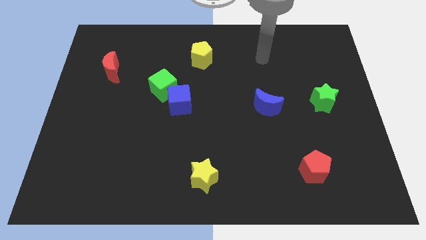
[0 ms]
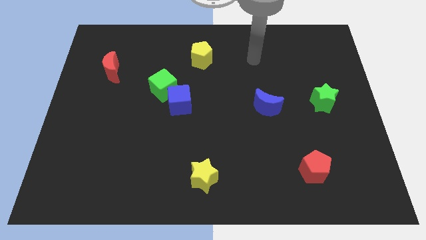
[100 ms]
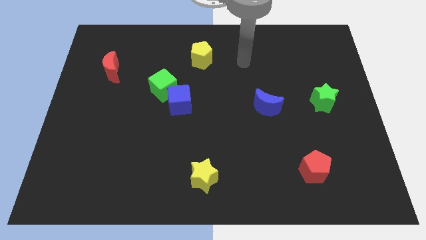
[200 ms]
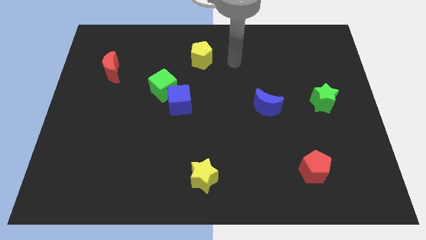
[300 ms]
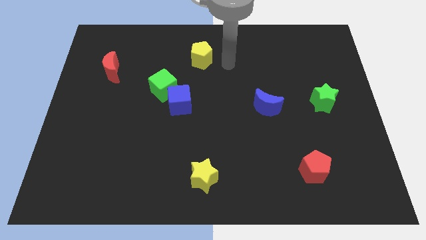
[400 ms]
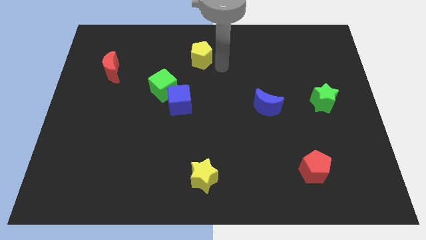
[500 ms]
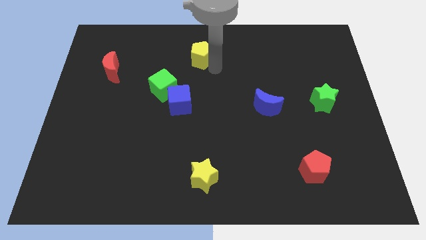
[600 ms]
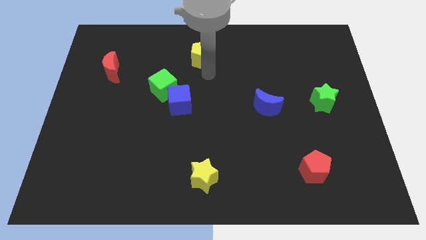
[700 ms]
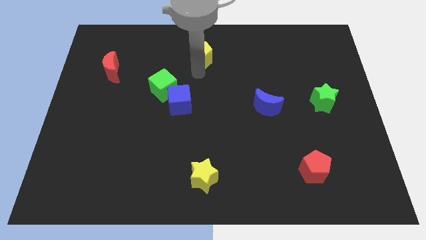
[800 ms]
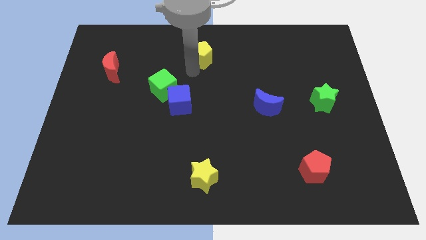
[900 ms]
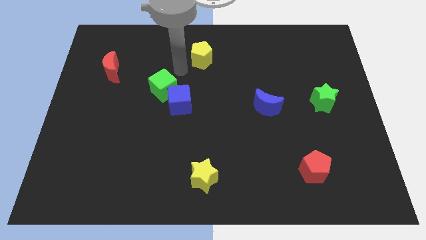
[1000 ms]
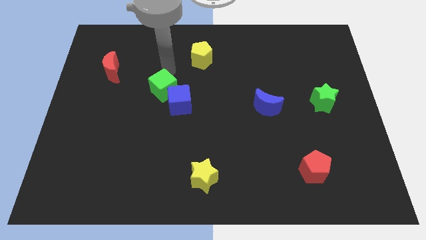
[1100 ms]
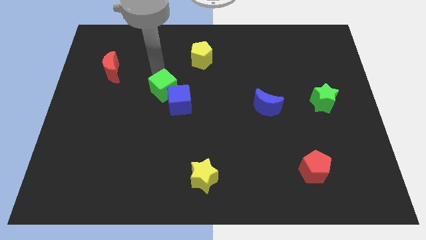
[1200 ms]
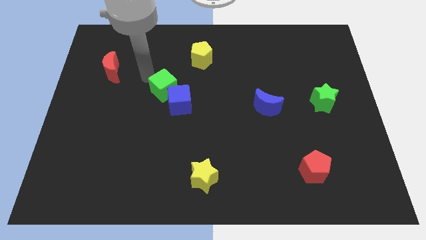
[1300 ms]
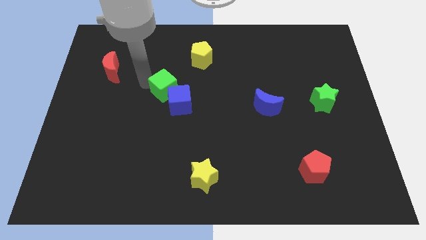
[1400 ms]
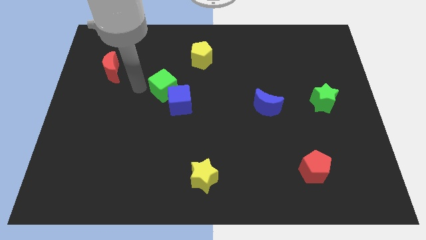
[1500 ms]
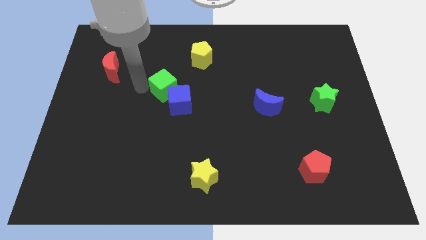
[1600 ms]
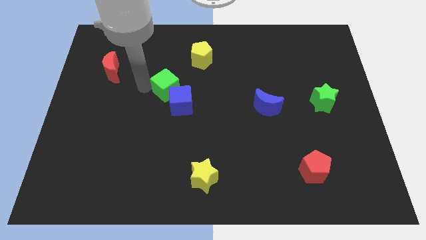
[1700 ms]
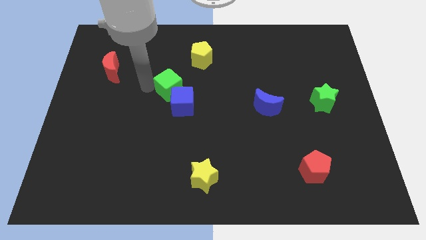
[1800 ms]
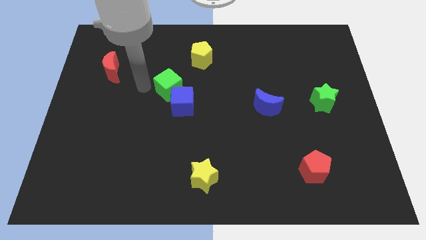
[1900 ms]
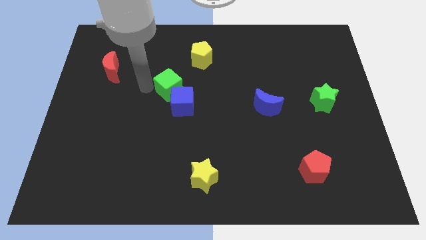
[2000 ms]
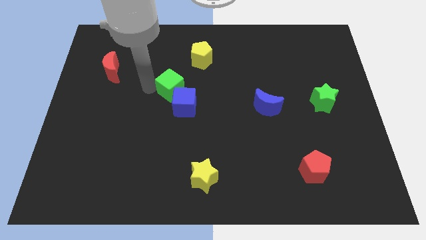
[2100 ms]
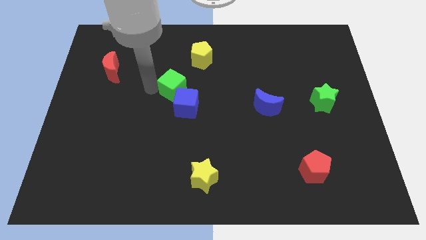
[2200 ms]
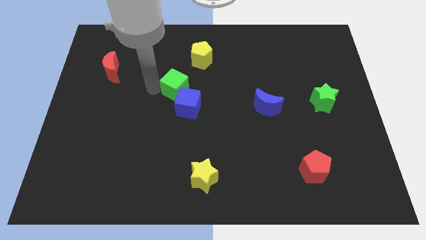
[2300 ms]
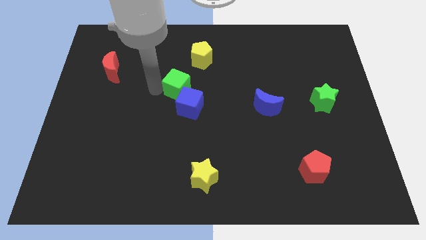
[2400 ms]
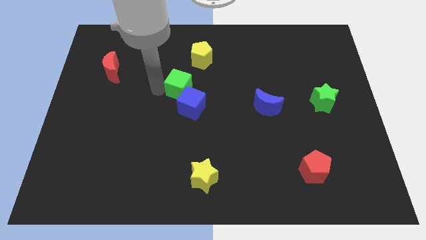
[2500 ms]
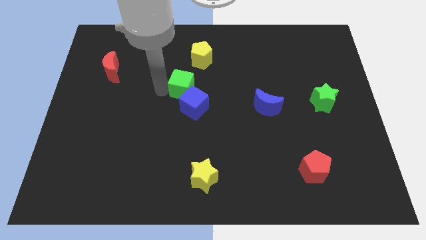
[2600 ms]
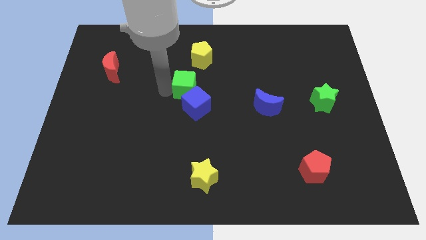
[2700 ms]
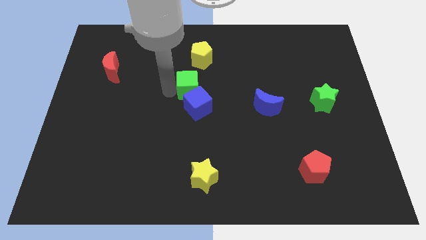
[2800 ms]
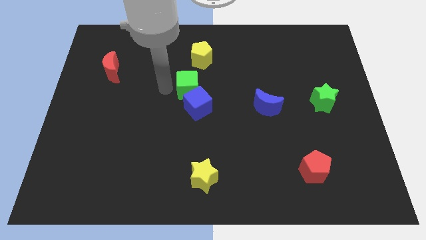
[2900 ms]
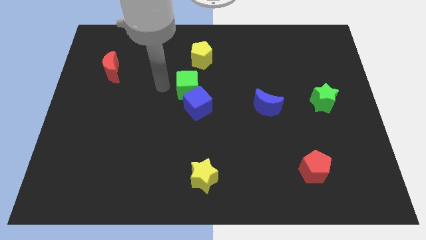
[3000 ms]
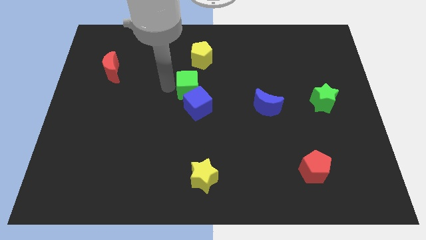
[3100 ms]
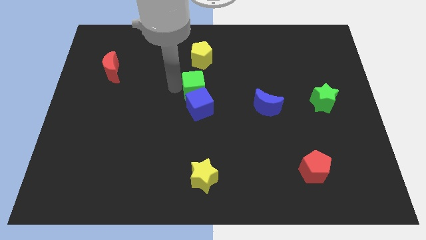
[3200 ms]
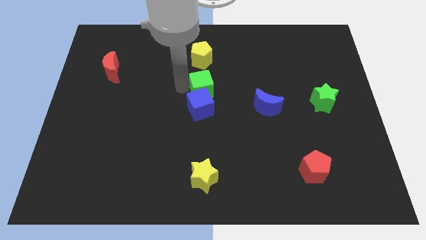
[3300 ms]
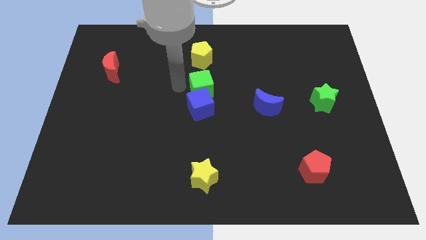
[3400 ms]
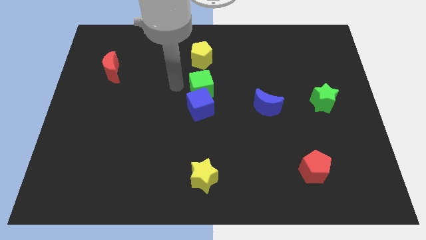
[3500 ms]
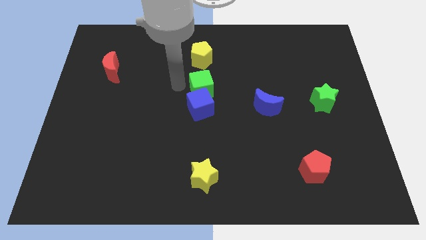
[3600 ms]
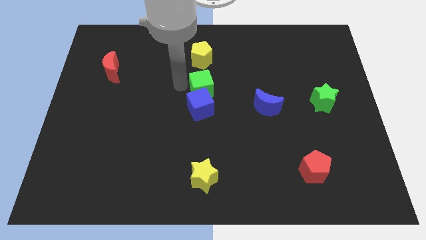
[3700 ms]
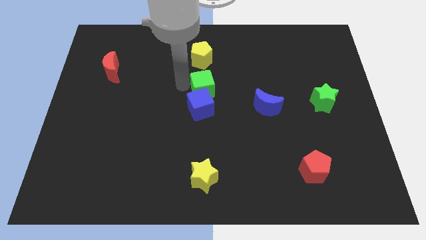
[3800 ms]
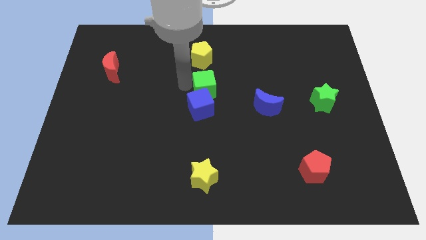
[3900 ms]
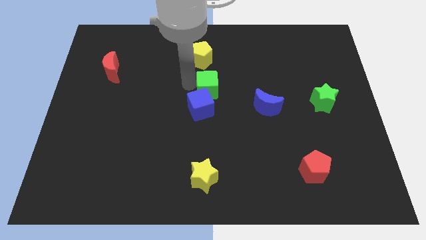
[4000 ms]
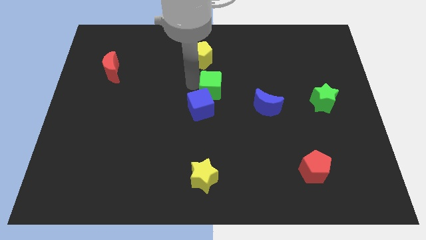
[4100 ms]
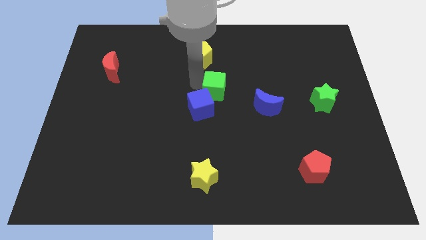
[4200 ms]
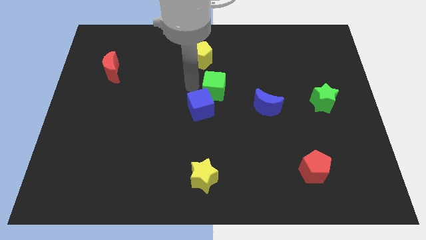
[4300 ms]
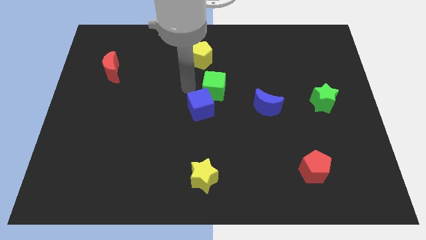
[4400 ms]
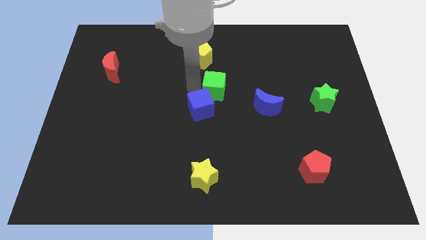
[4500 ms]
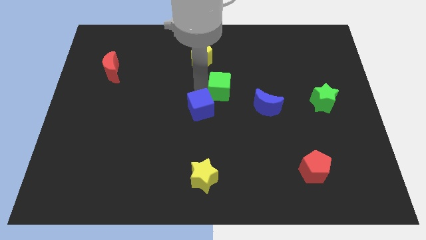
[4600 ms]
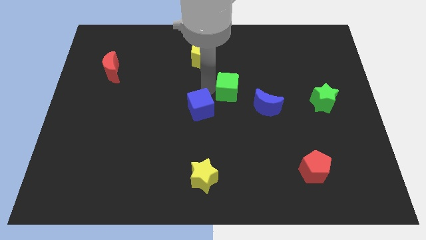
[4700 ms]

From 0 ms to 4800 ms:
slide the green cube to the top left side of the blue moon

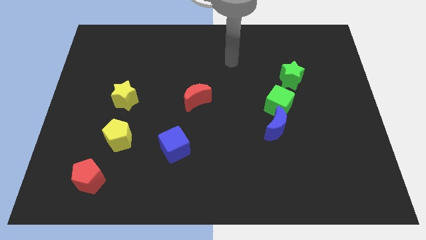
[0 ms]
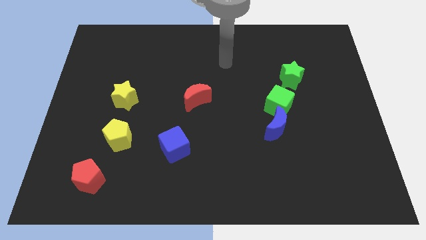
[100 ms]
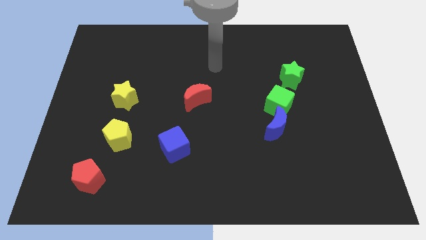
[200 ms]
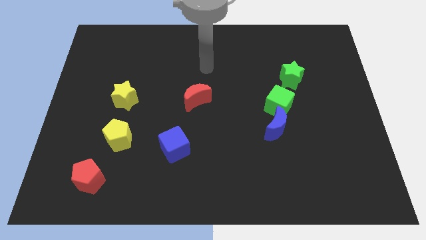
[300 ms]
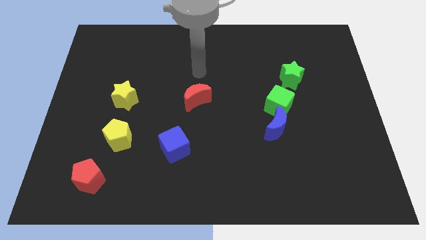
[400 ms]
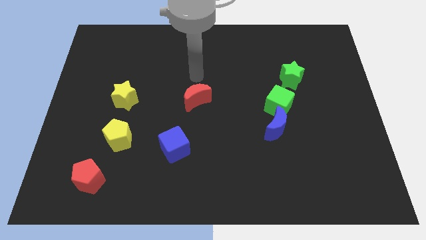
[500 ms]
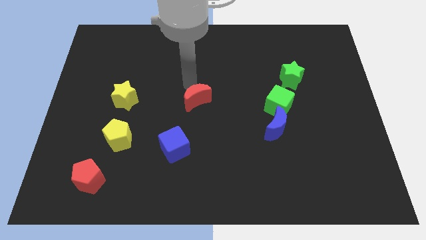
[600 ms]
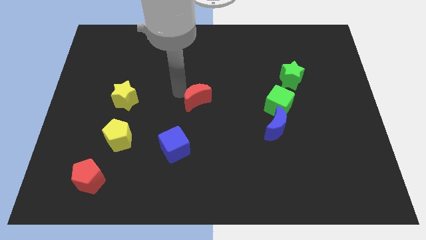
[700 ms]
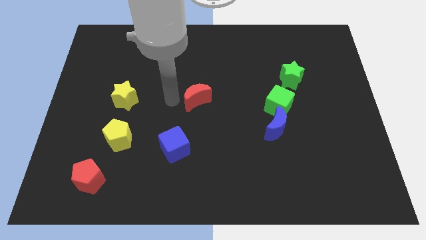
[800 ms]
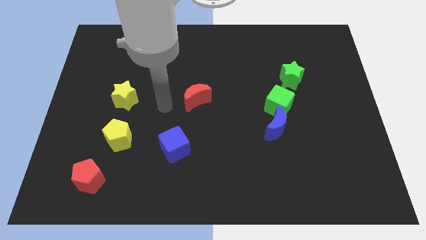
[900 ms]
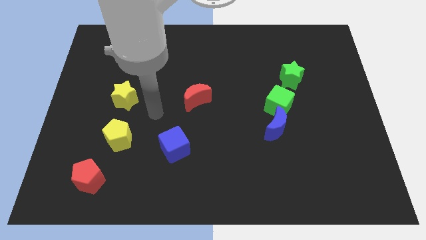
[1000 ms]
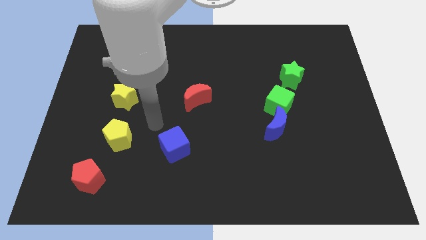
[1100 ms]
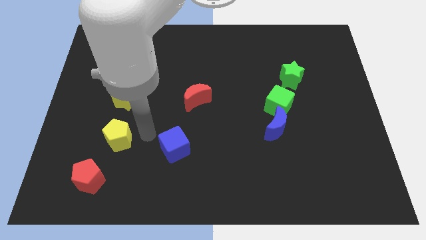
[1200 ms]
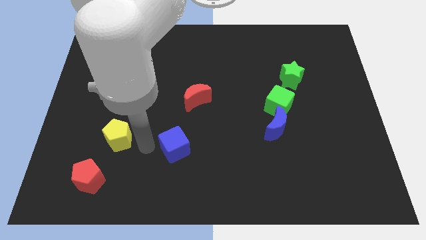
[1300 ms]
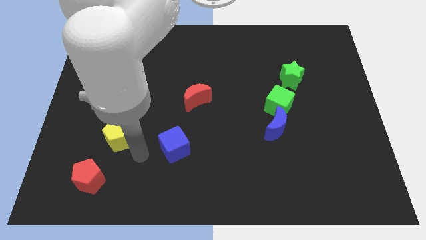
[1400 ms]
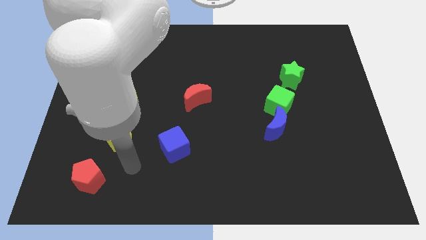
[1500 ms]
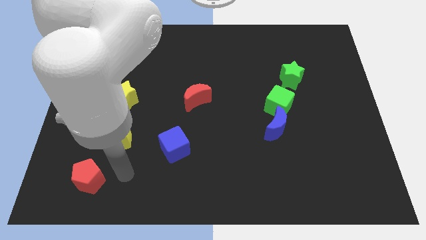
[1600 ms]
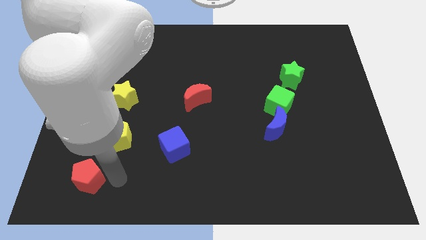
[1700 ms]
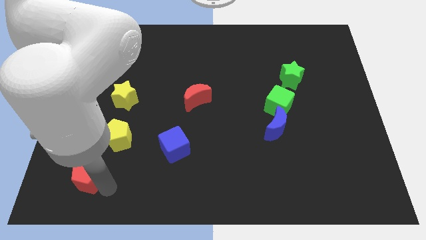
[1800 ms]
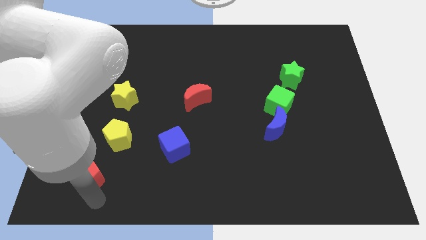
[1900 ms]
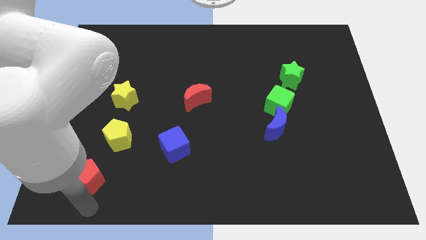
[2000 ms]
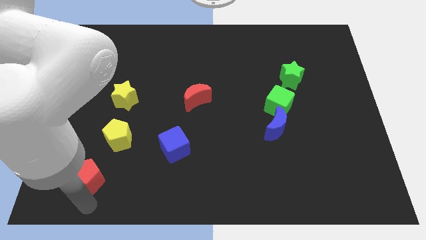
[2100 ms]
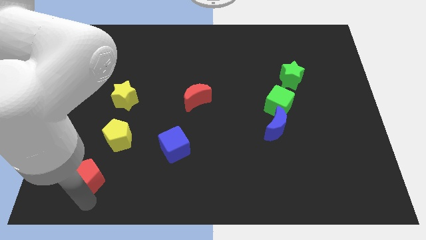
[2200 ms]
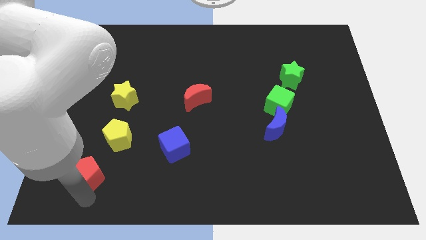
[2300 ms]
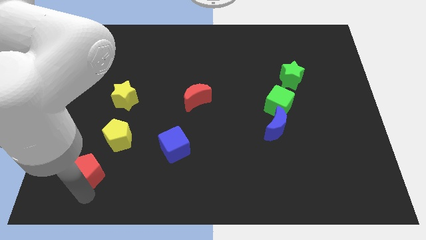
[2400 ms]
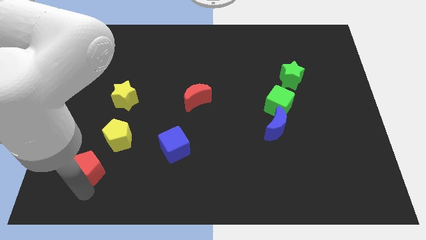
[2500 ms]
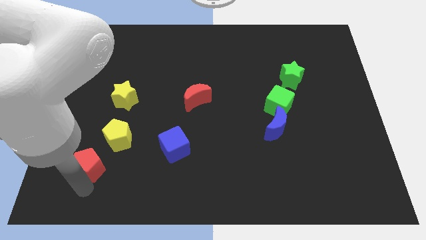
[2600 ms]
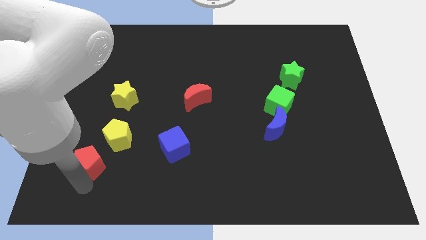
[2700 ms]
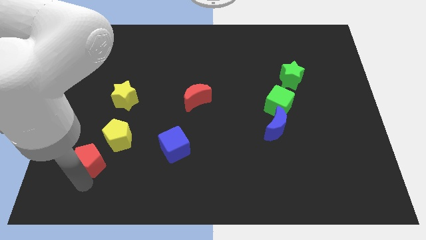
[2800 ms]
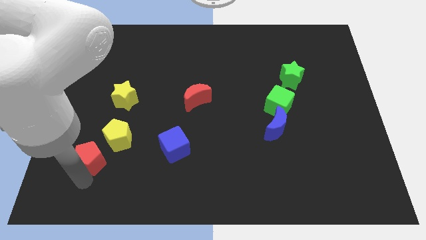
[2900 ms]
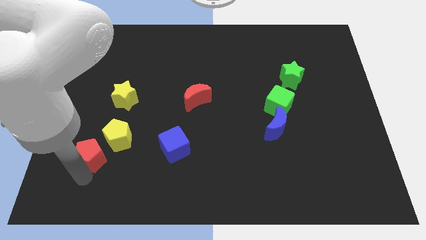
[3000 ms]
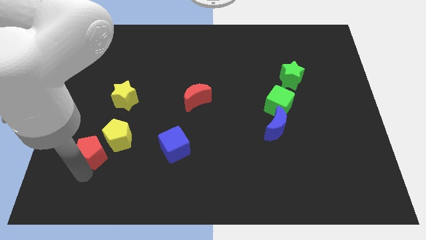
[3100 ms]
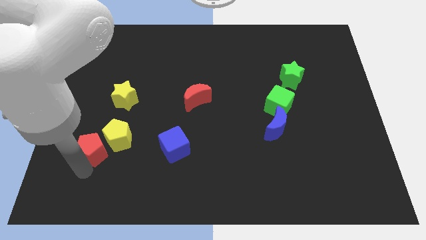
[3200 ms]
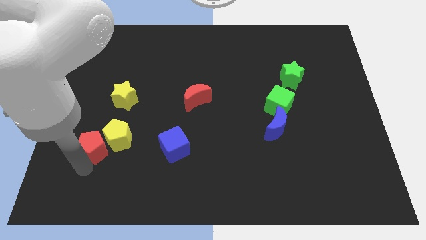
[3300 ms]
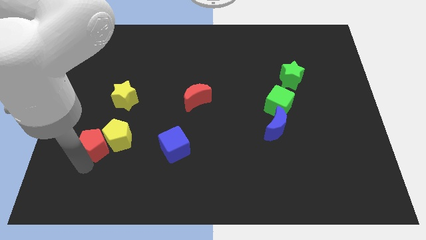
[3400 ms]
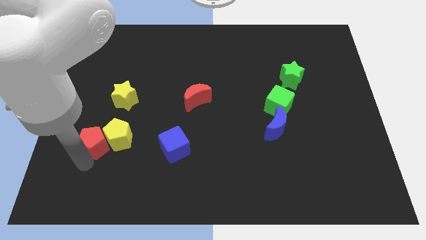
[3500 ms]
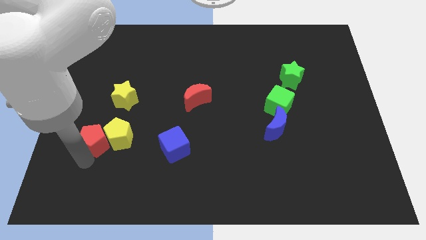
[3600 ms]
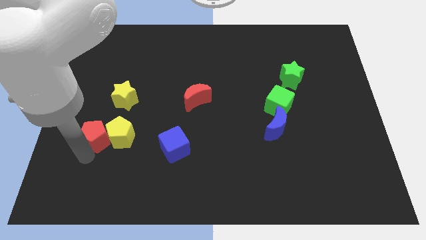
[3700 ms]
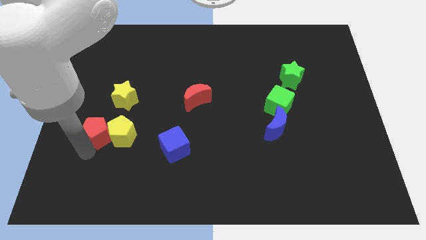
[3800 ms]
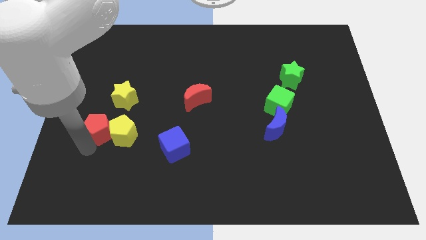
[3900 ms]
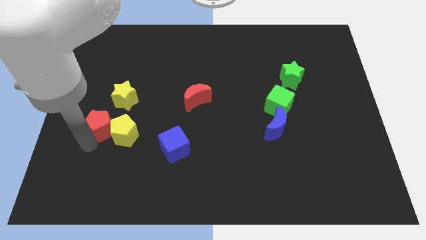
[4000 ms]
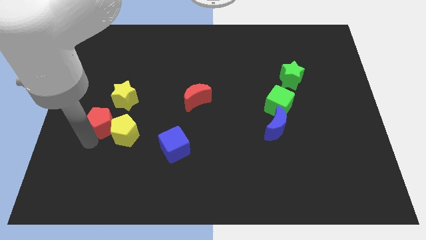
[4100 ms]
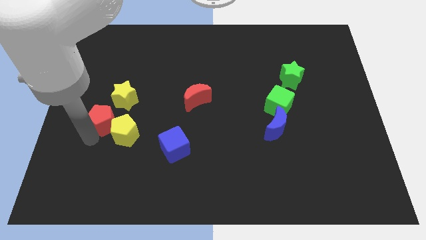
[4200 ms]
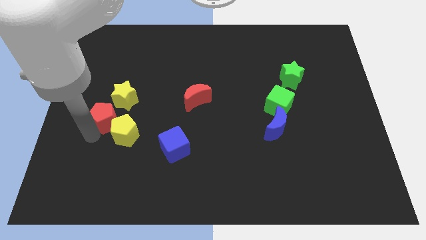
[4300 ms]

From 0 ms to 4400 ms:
push the red pentagon to the top of the yellow pentagon
